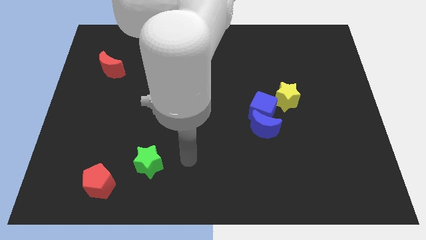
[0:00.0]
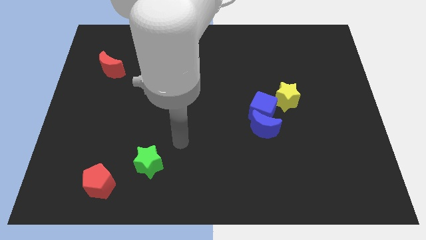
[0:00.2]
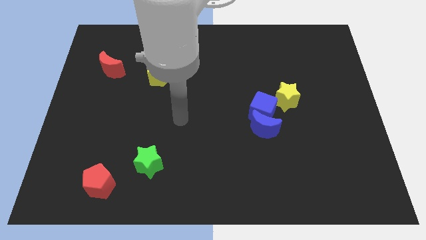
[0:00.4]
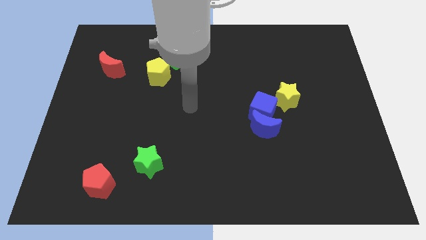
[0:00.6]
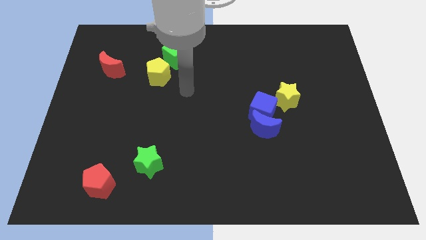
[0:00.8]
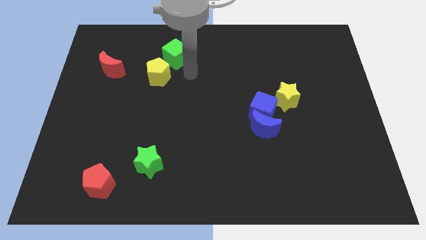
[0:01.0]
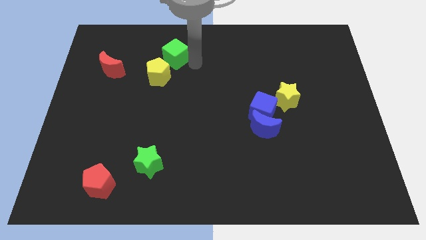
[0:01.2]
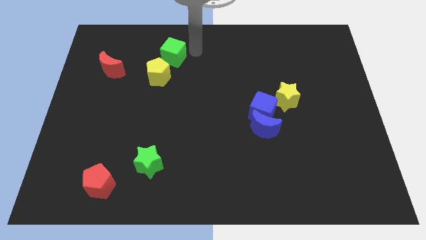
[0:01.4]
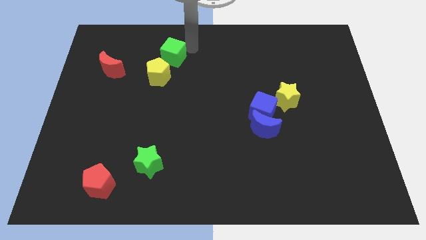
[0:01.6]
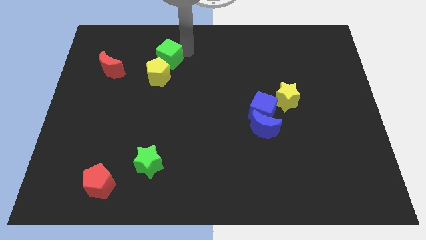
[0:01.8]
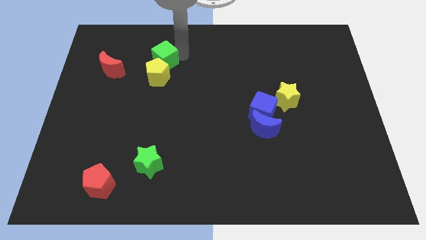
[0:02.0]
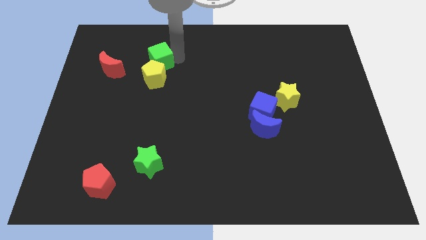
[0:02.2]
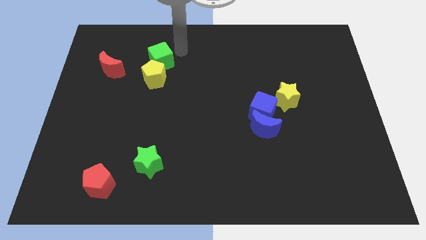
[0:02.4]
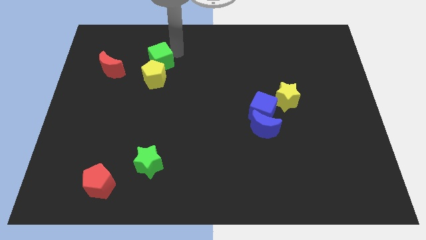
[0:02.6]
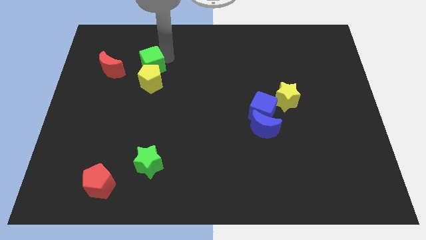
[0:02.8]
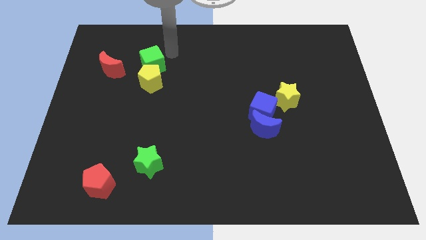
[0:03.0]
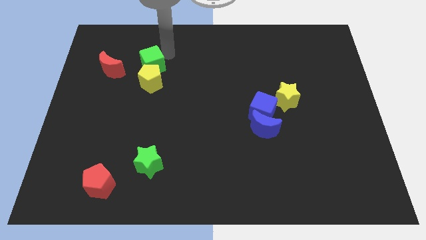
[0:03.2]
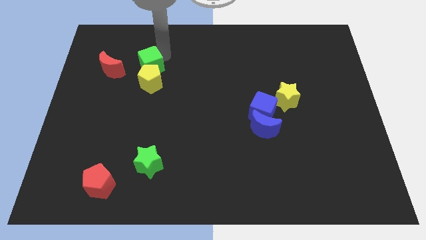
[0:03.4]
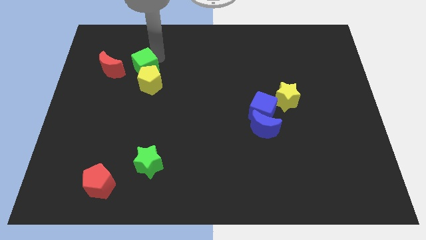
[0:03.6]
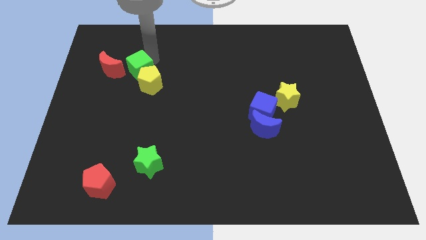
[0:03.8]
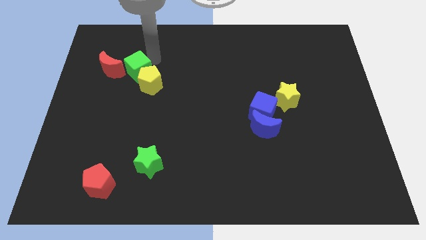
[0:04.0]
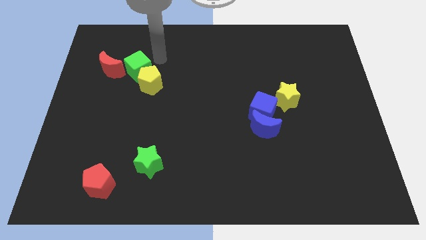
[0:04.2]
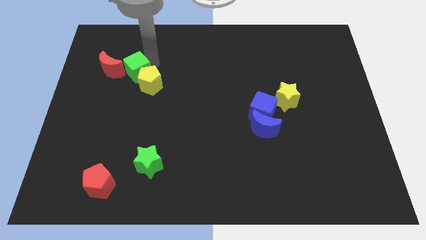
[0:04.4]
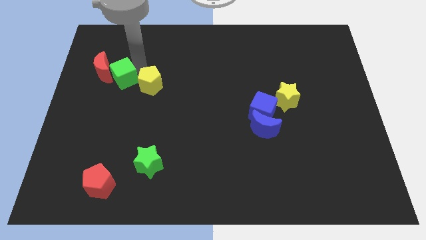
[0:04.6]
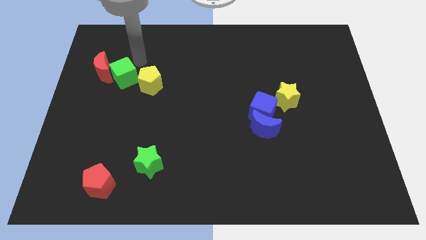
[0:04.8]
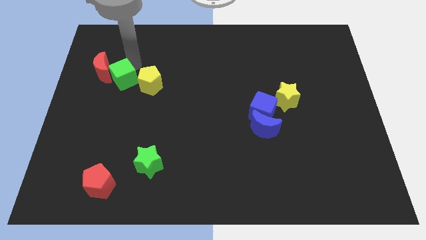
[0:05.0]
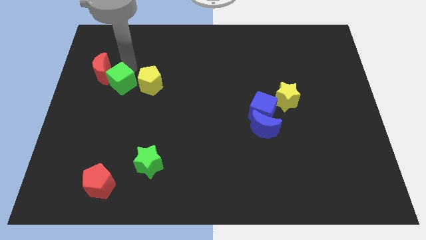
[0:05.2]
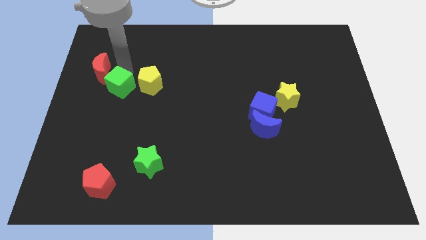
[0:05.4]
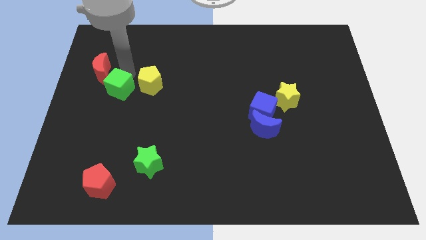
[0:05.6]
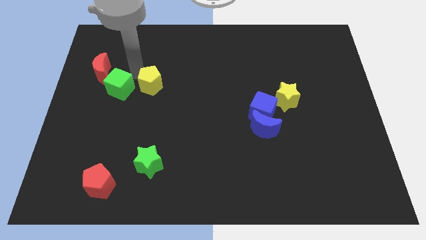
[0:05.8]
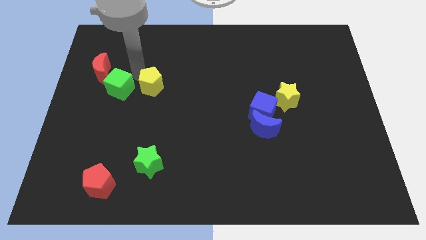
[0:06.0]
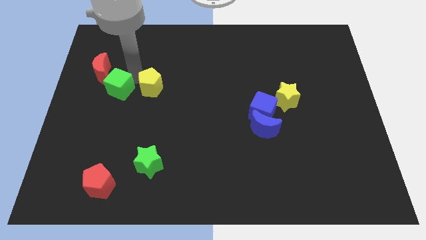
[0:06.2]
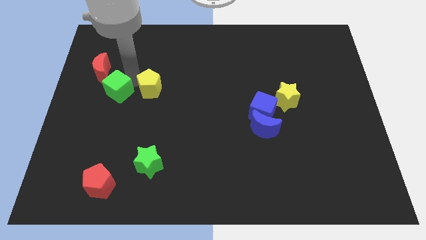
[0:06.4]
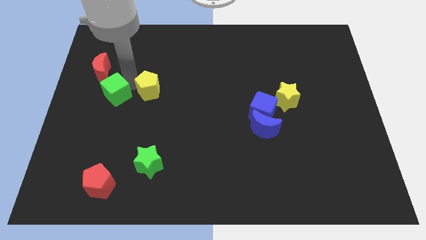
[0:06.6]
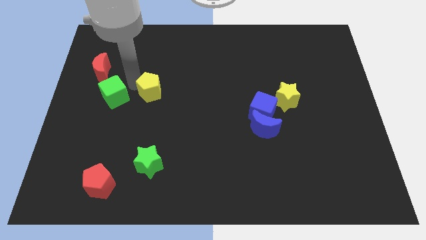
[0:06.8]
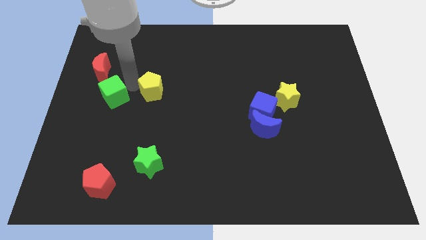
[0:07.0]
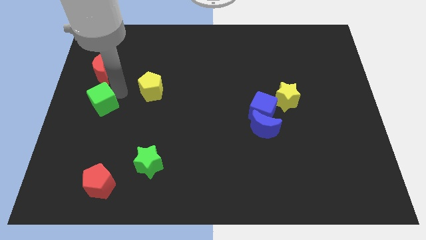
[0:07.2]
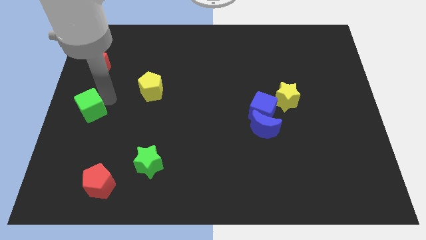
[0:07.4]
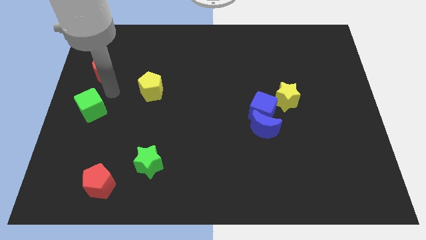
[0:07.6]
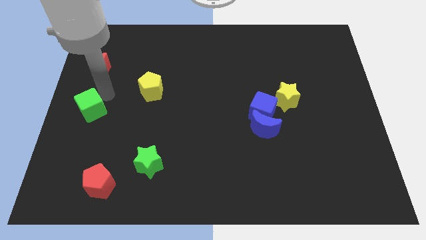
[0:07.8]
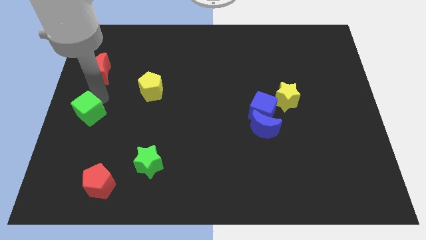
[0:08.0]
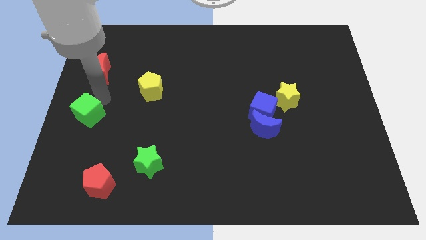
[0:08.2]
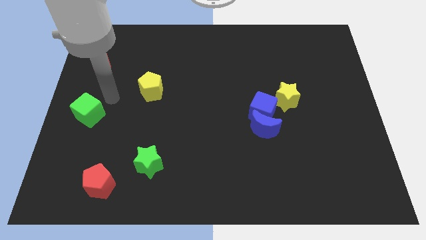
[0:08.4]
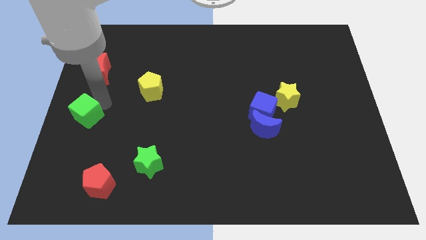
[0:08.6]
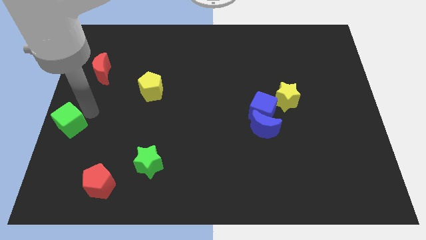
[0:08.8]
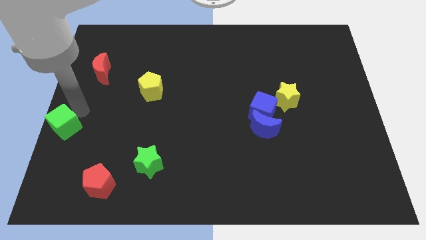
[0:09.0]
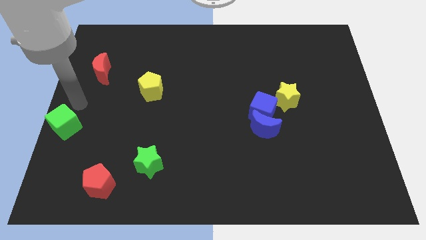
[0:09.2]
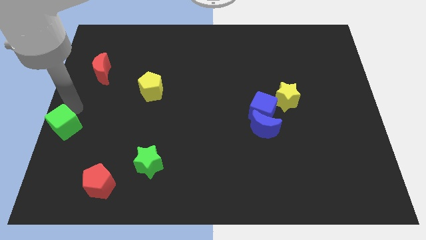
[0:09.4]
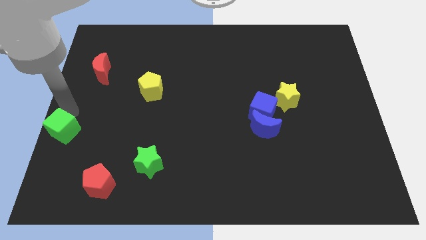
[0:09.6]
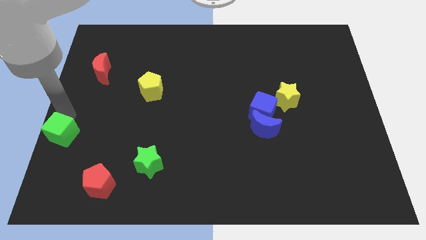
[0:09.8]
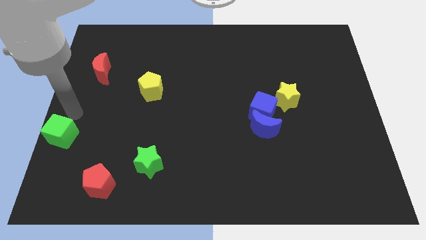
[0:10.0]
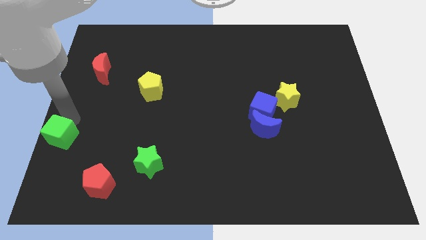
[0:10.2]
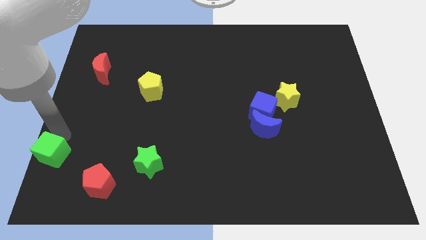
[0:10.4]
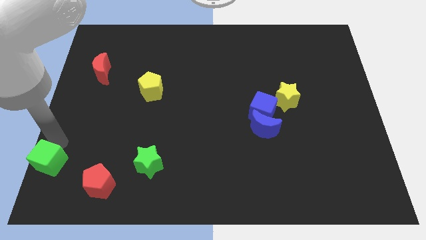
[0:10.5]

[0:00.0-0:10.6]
push the green cube to the lower left corner

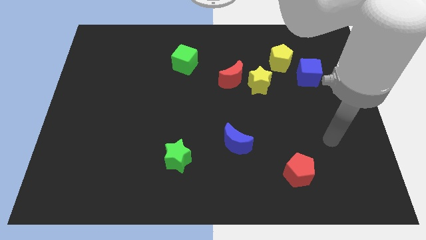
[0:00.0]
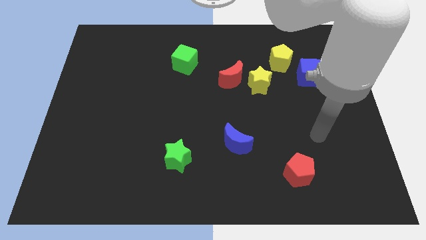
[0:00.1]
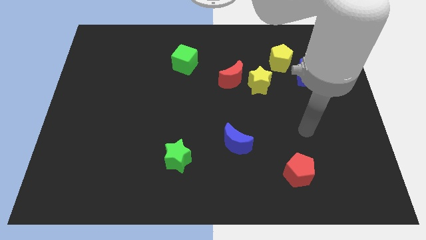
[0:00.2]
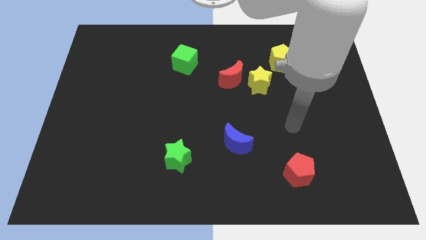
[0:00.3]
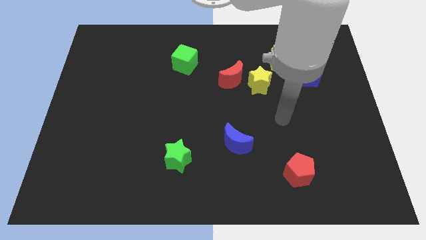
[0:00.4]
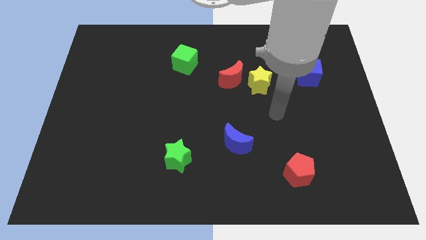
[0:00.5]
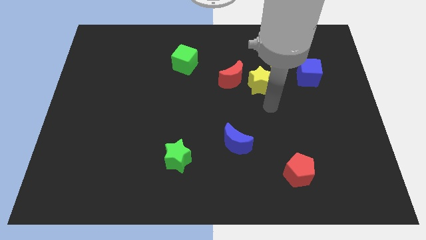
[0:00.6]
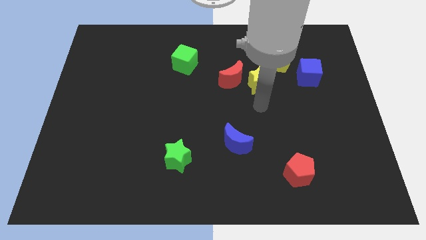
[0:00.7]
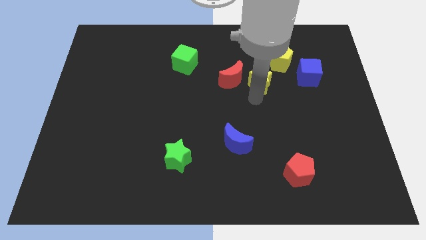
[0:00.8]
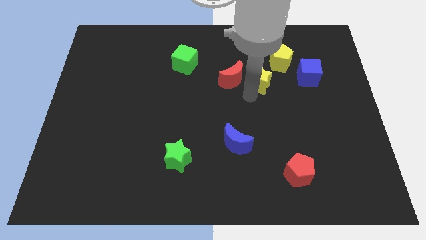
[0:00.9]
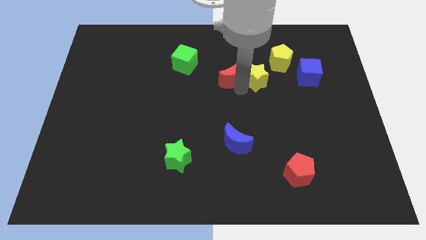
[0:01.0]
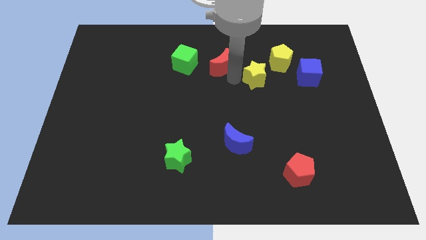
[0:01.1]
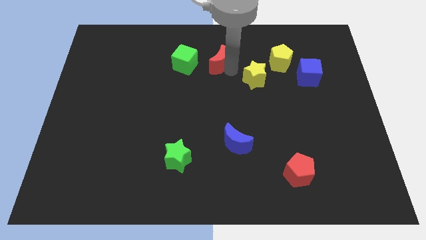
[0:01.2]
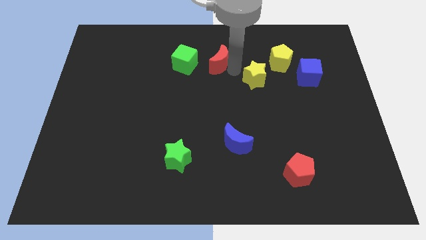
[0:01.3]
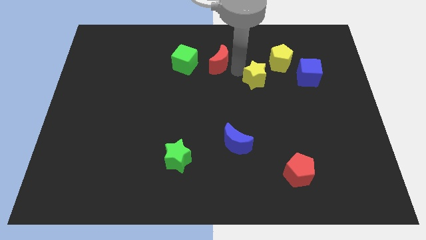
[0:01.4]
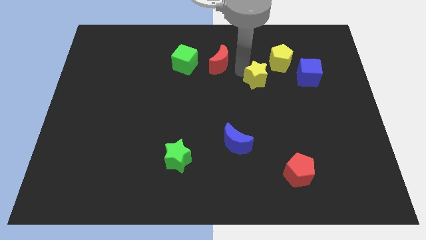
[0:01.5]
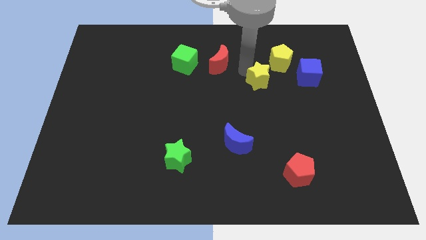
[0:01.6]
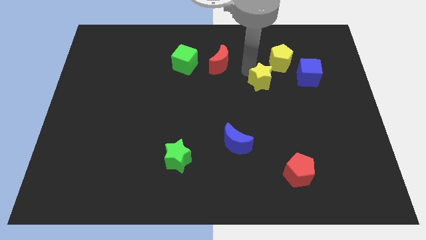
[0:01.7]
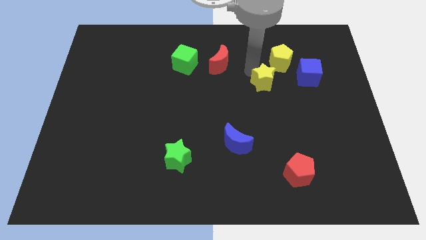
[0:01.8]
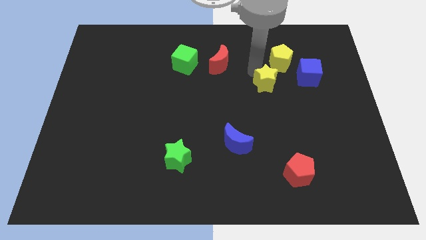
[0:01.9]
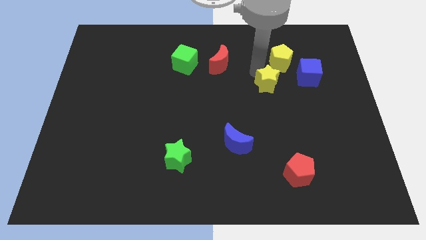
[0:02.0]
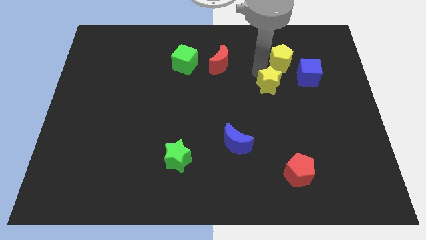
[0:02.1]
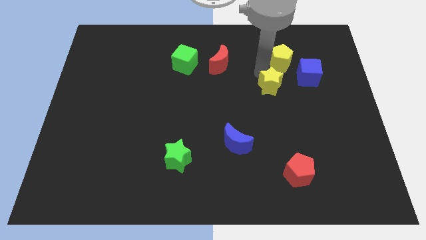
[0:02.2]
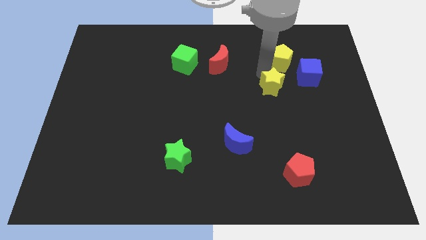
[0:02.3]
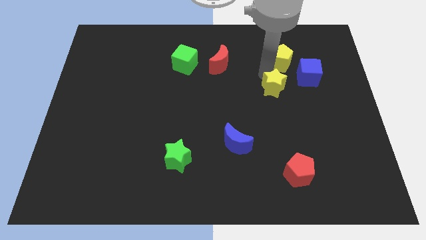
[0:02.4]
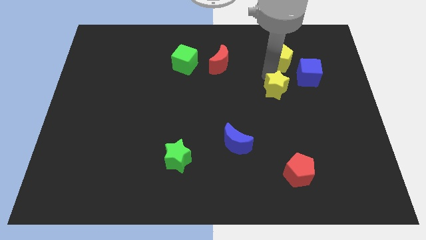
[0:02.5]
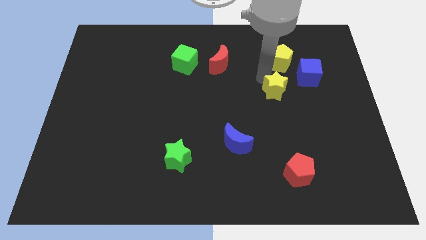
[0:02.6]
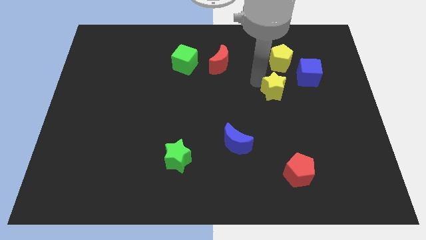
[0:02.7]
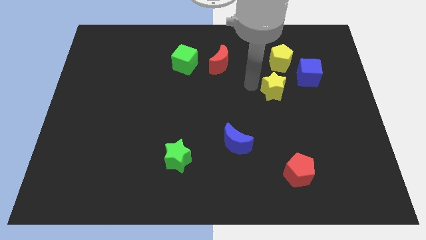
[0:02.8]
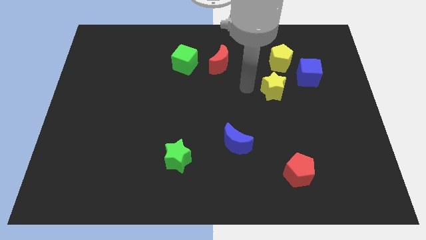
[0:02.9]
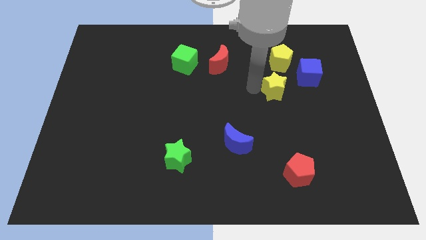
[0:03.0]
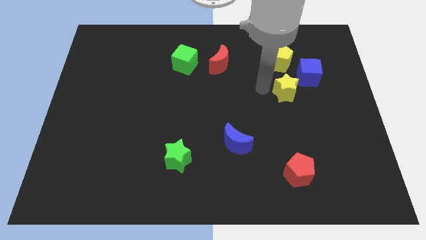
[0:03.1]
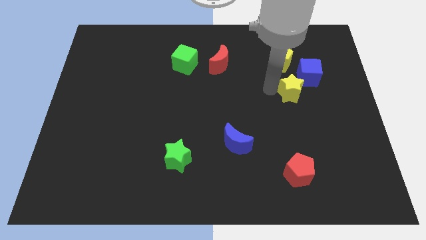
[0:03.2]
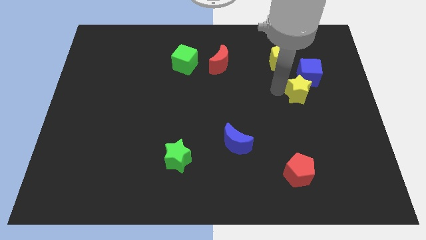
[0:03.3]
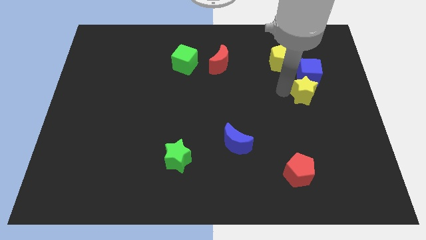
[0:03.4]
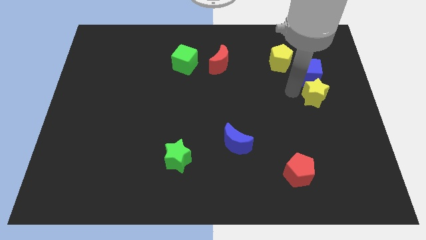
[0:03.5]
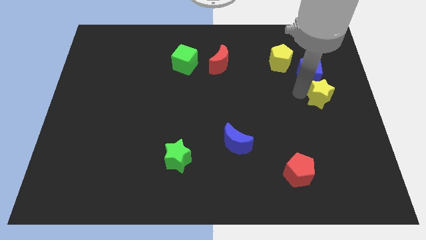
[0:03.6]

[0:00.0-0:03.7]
push the yellow star to the center right
